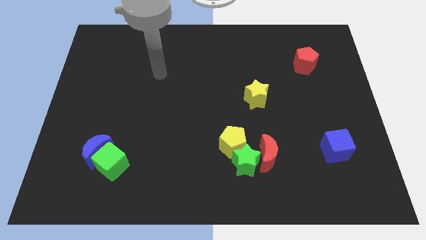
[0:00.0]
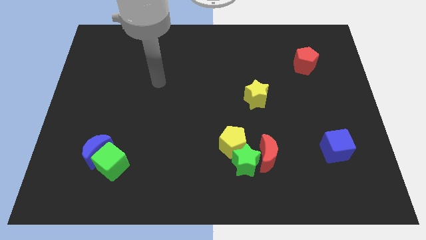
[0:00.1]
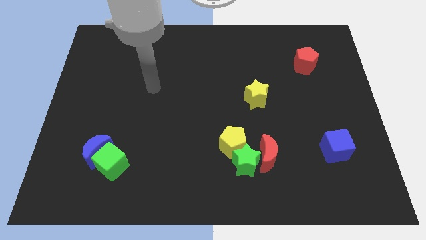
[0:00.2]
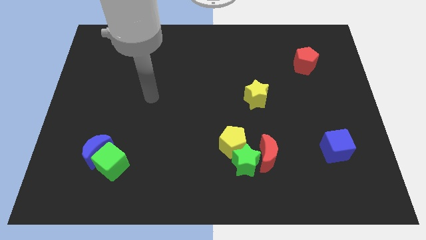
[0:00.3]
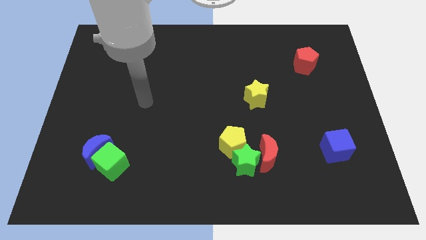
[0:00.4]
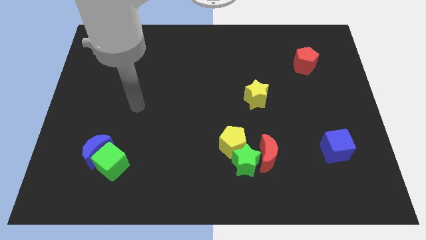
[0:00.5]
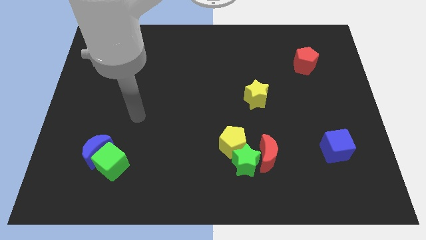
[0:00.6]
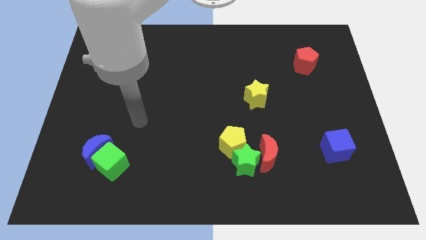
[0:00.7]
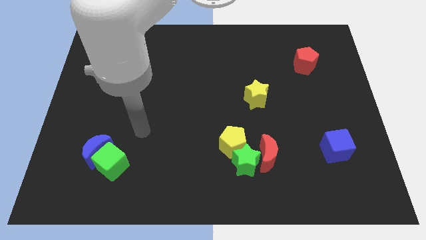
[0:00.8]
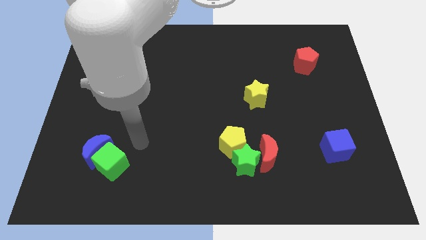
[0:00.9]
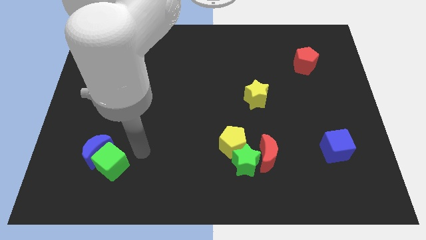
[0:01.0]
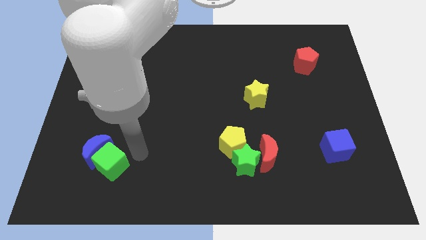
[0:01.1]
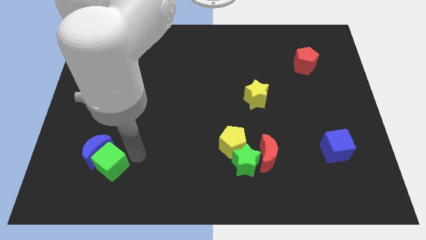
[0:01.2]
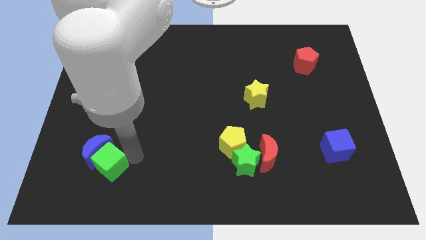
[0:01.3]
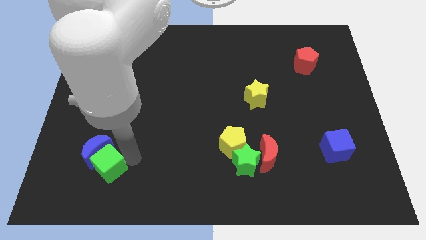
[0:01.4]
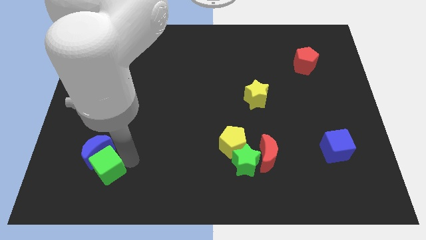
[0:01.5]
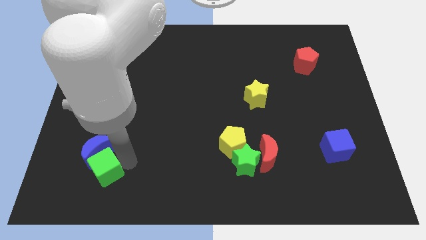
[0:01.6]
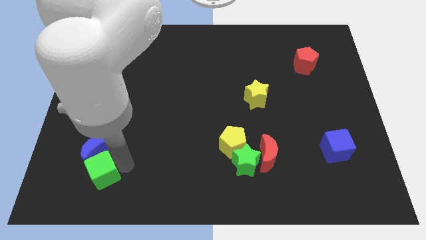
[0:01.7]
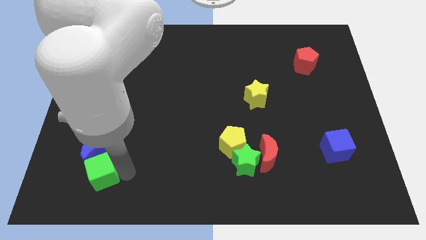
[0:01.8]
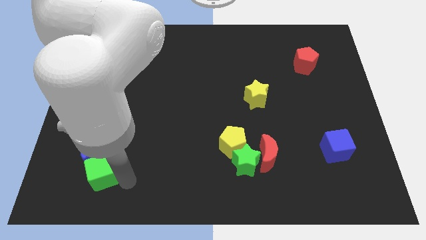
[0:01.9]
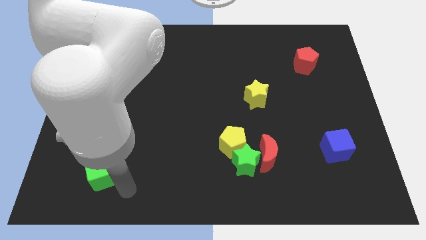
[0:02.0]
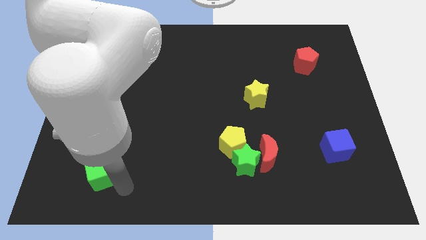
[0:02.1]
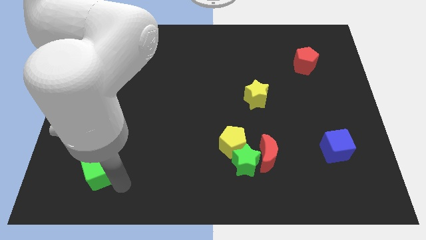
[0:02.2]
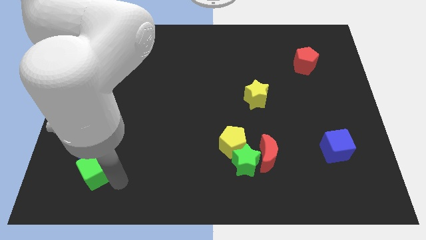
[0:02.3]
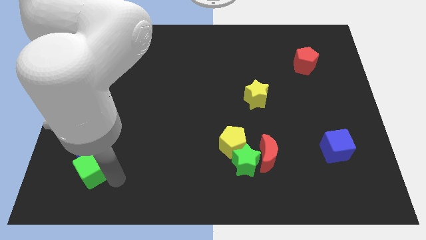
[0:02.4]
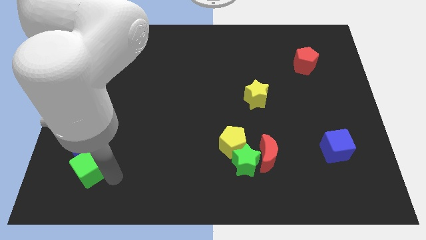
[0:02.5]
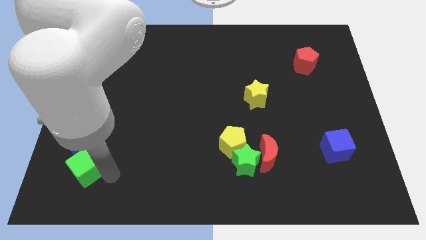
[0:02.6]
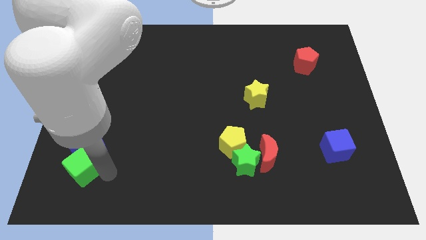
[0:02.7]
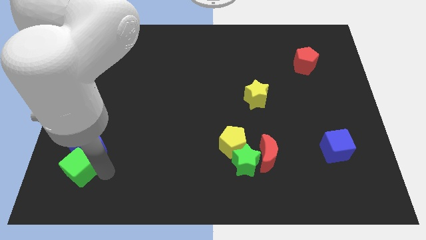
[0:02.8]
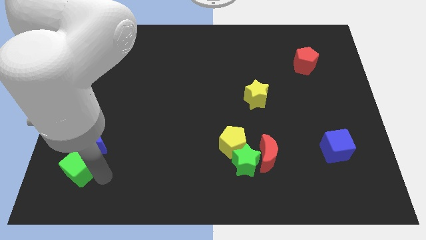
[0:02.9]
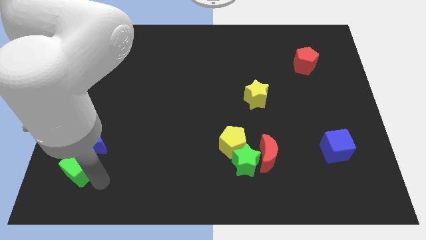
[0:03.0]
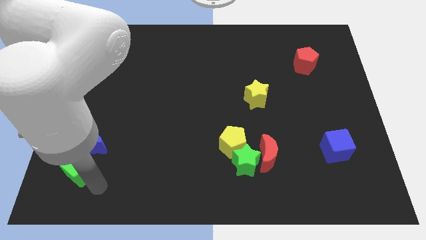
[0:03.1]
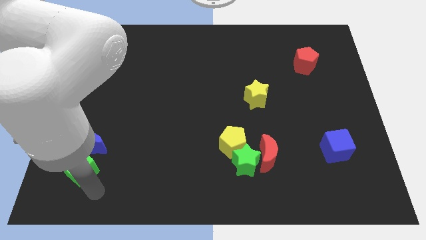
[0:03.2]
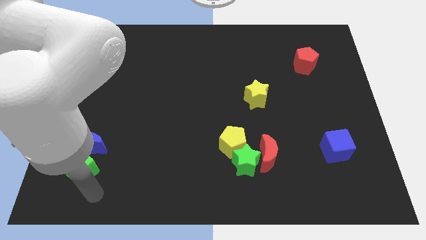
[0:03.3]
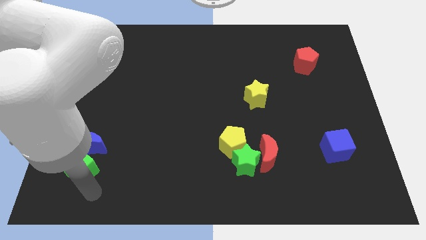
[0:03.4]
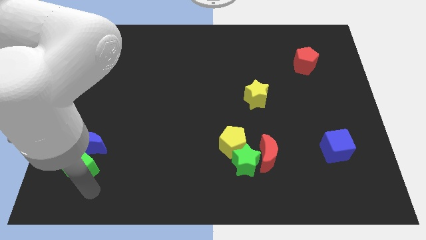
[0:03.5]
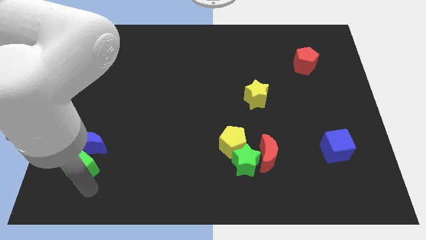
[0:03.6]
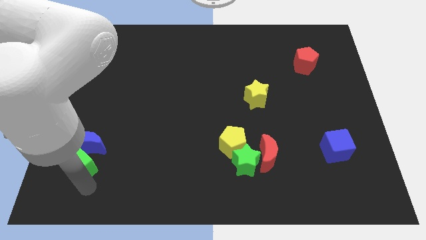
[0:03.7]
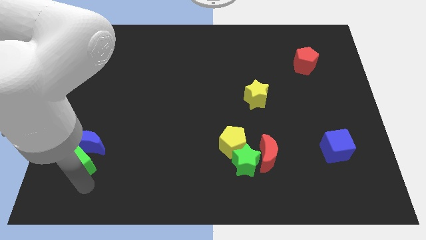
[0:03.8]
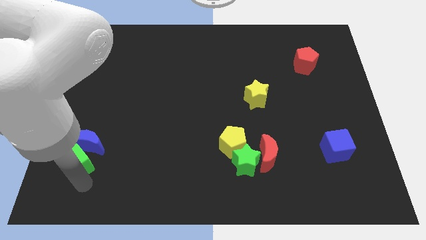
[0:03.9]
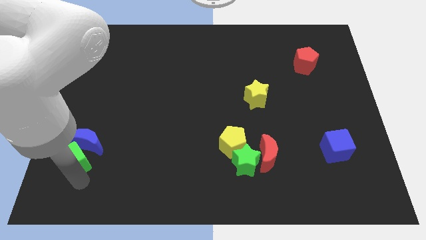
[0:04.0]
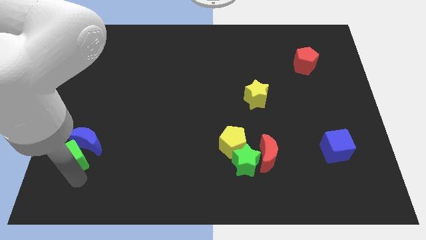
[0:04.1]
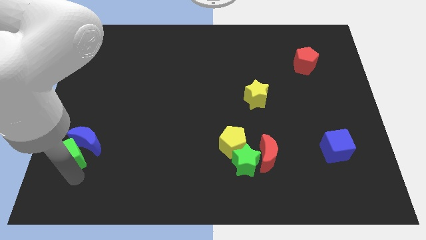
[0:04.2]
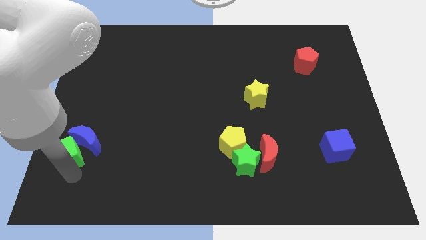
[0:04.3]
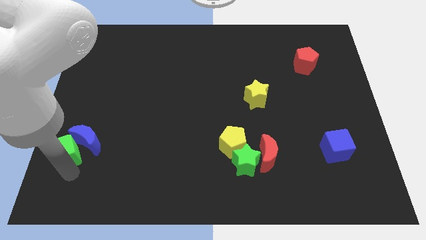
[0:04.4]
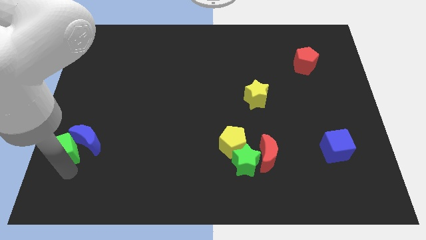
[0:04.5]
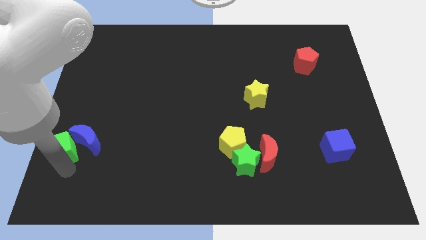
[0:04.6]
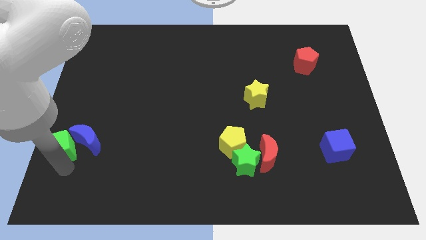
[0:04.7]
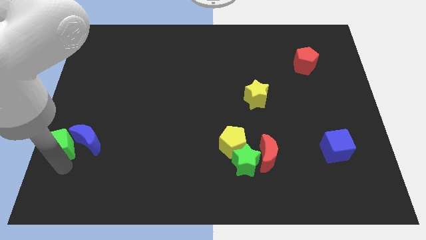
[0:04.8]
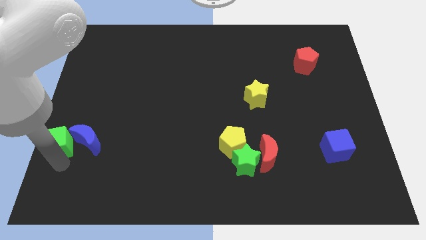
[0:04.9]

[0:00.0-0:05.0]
put the green cube to the left side

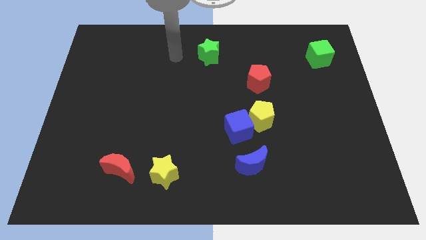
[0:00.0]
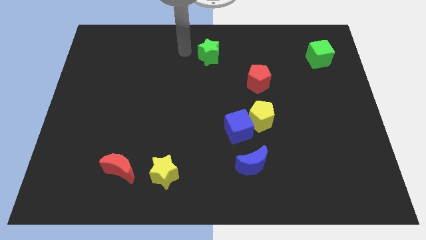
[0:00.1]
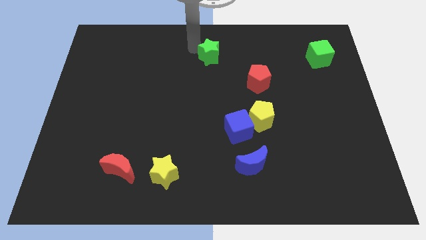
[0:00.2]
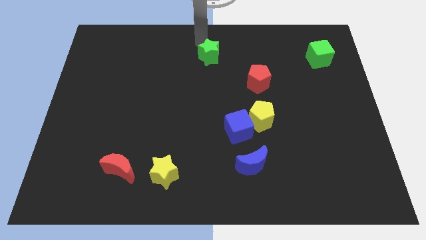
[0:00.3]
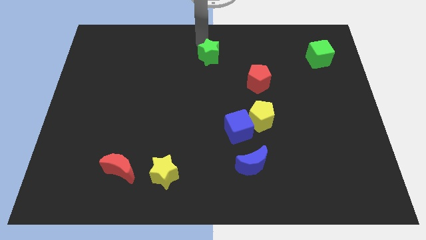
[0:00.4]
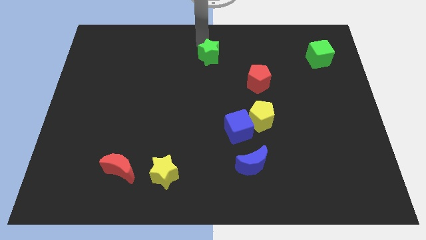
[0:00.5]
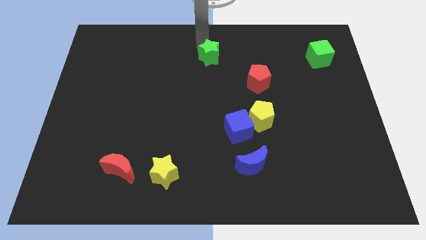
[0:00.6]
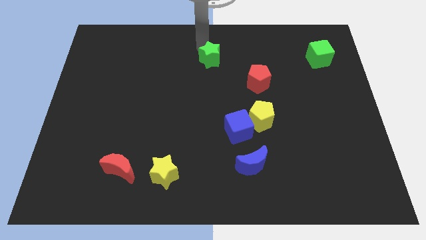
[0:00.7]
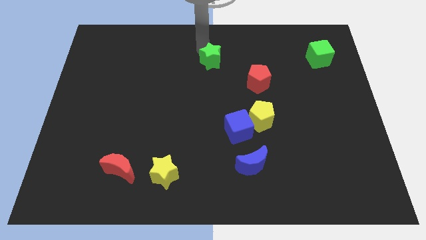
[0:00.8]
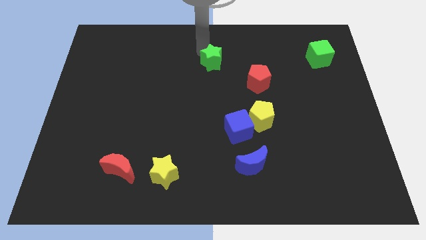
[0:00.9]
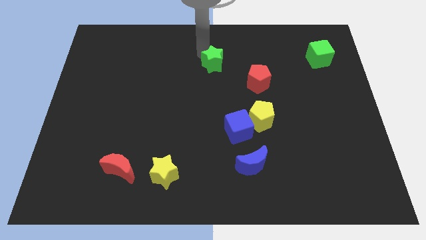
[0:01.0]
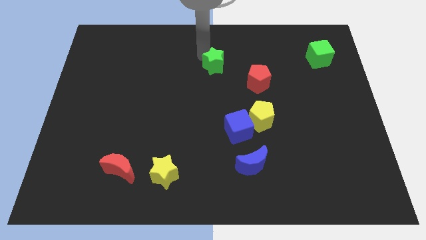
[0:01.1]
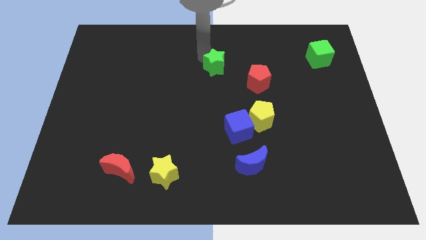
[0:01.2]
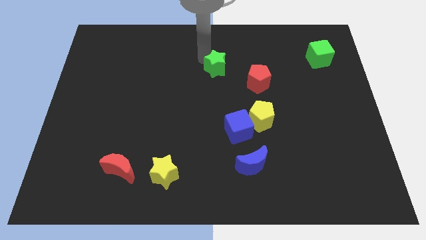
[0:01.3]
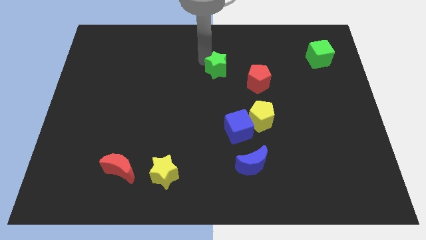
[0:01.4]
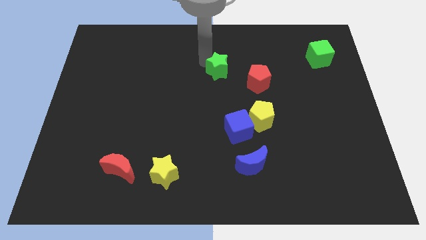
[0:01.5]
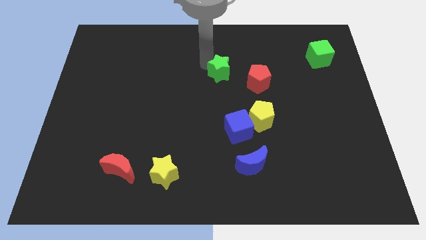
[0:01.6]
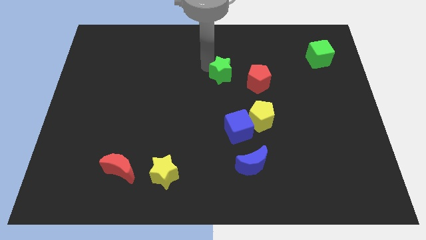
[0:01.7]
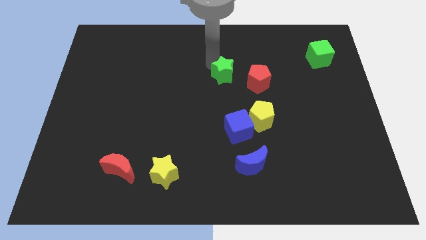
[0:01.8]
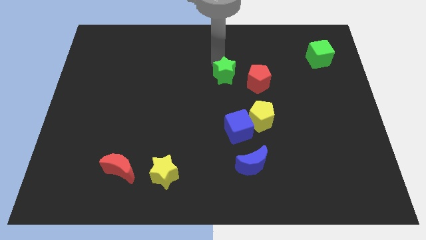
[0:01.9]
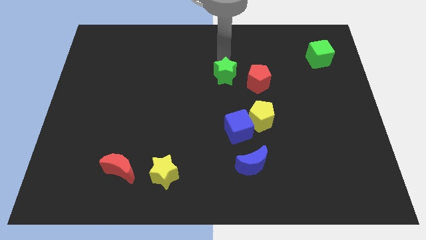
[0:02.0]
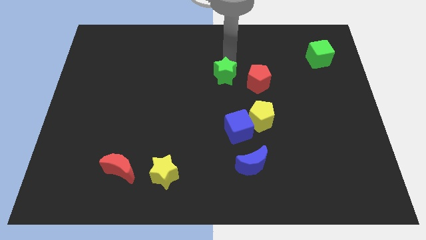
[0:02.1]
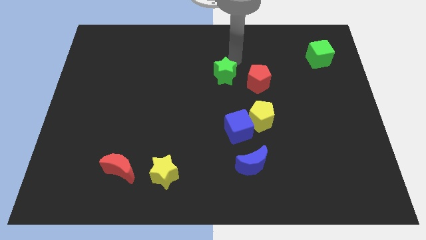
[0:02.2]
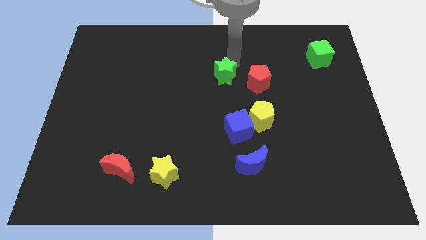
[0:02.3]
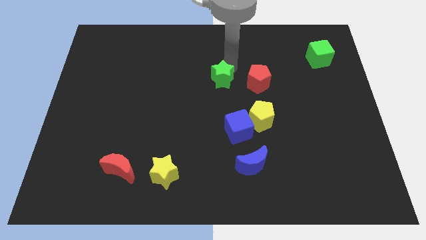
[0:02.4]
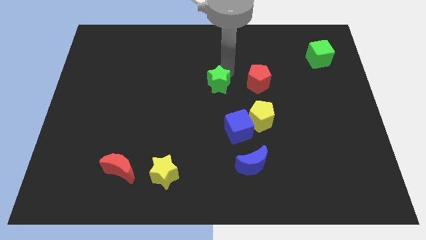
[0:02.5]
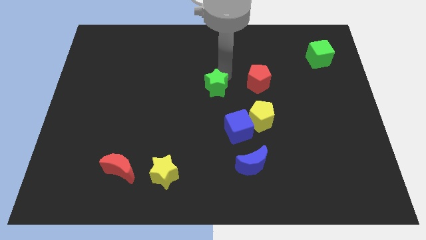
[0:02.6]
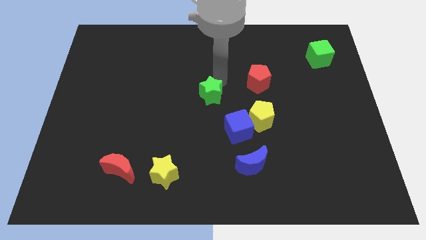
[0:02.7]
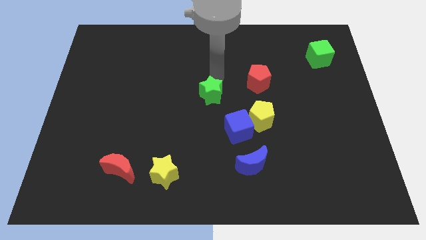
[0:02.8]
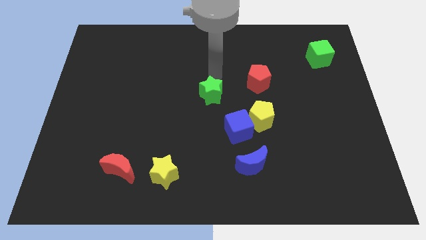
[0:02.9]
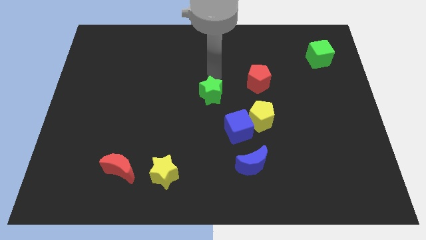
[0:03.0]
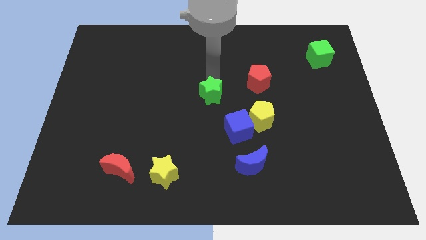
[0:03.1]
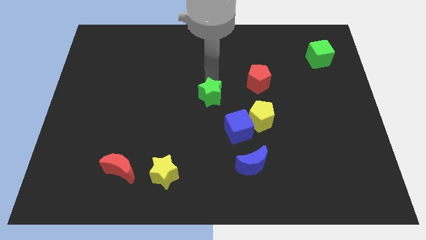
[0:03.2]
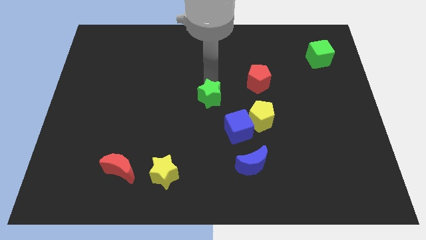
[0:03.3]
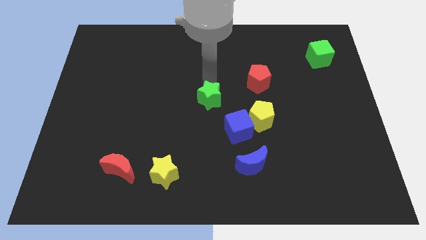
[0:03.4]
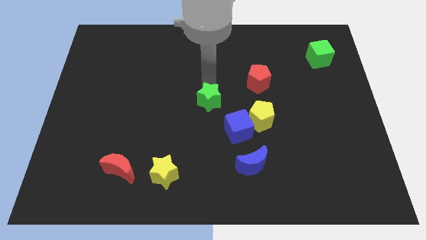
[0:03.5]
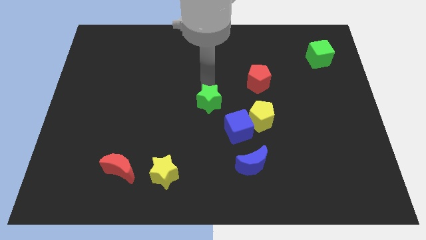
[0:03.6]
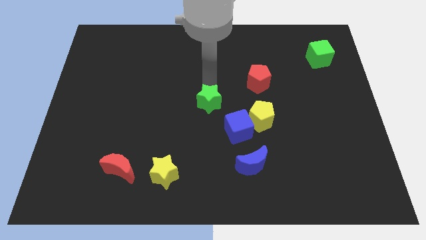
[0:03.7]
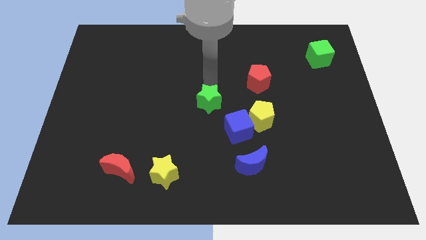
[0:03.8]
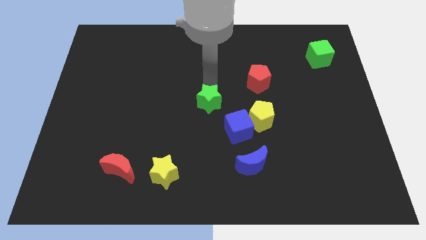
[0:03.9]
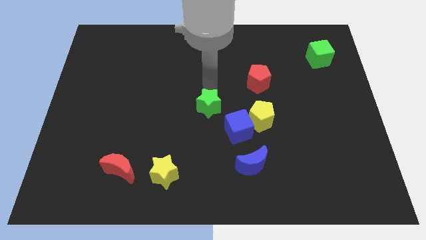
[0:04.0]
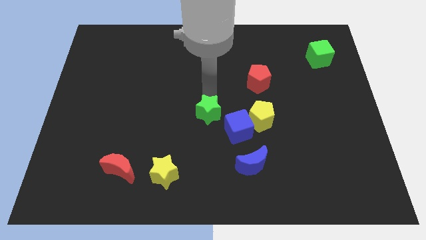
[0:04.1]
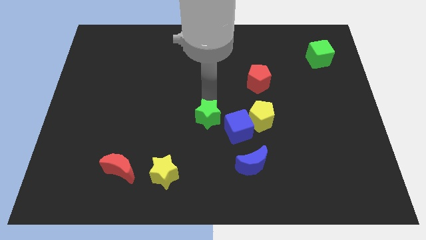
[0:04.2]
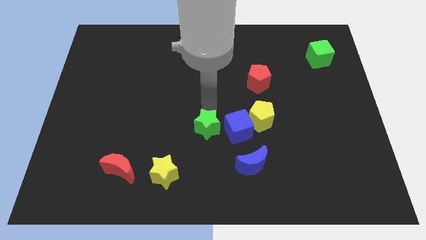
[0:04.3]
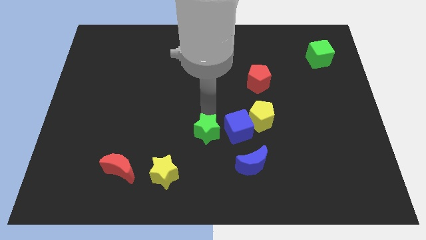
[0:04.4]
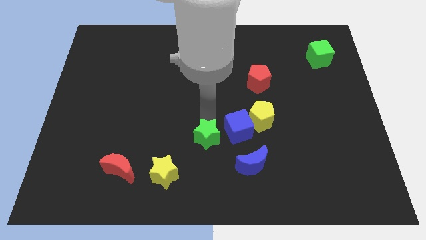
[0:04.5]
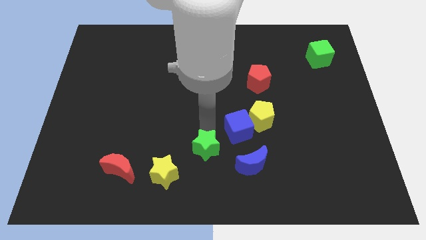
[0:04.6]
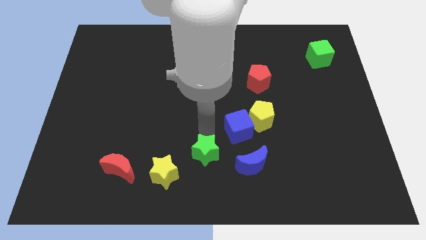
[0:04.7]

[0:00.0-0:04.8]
slide the green star to the bottom
